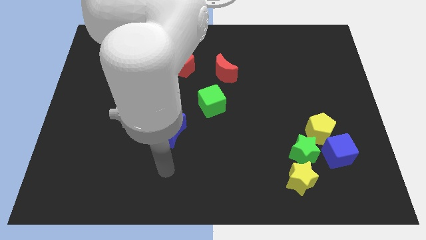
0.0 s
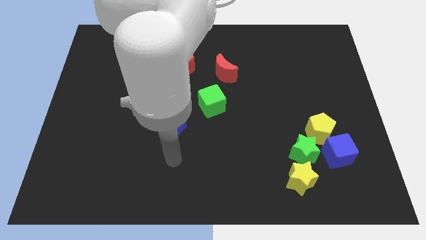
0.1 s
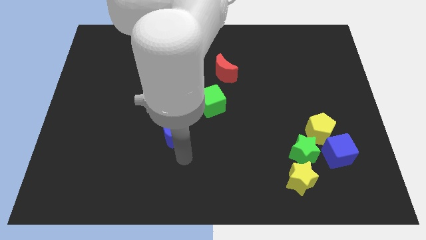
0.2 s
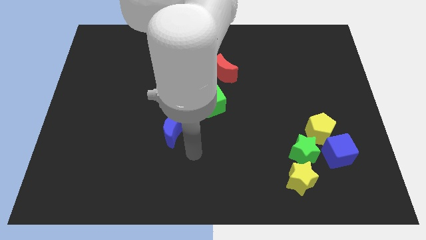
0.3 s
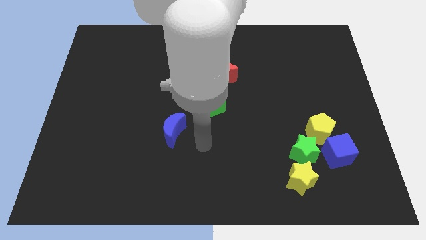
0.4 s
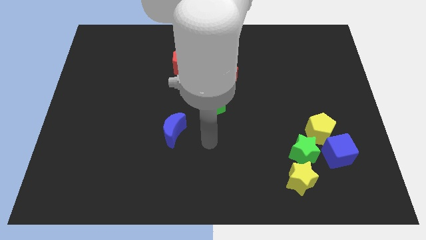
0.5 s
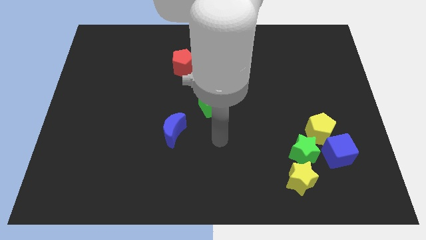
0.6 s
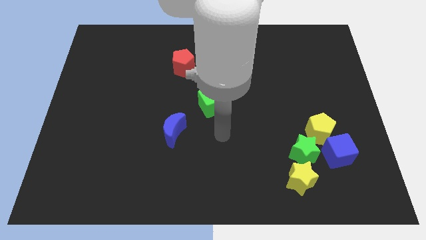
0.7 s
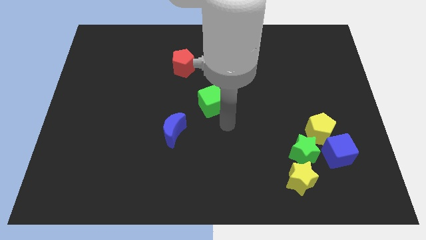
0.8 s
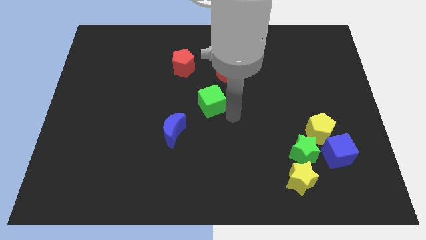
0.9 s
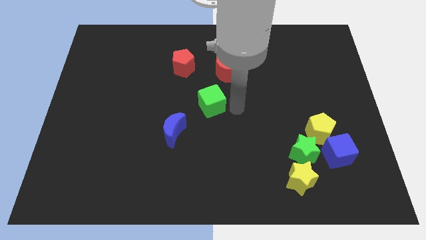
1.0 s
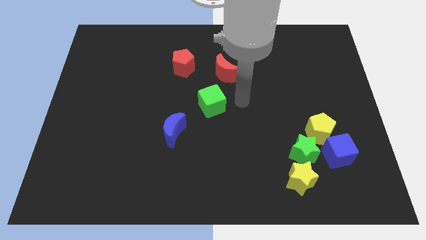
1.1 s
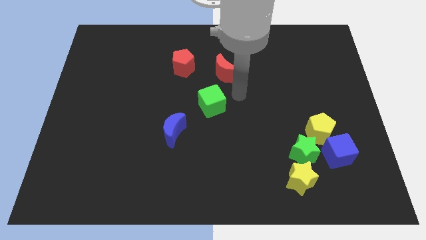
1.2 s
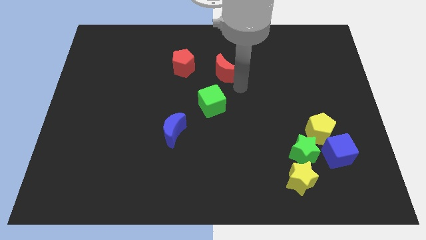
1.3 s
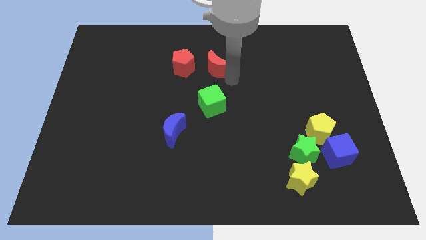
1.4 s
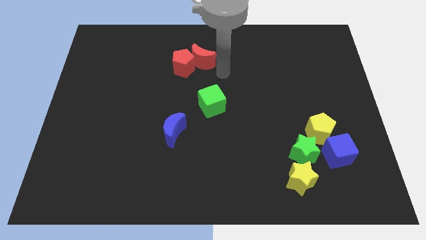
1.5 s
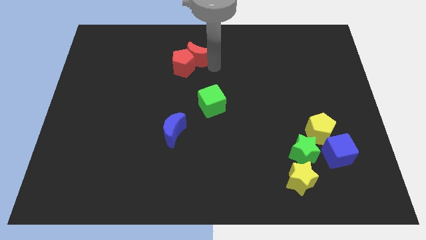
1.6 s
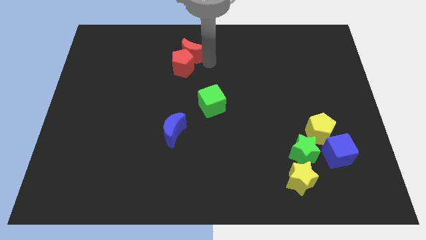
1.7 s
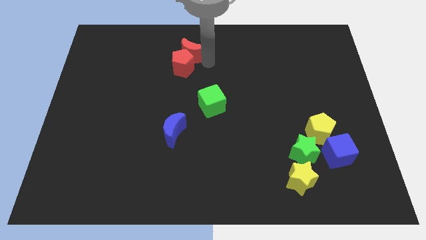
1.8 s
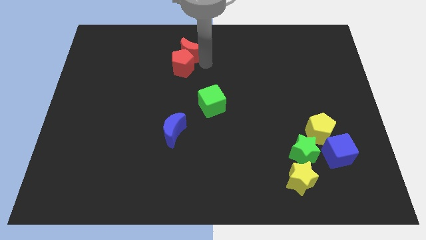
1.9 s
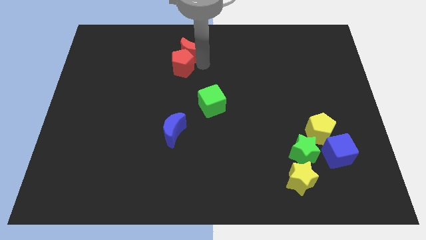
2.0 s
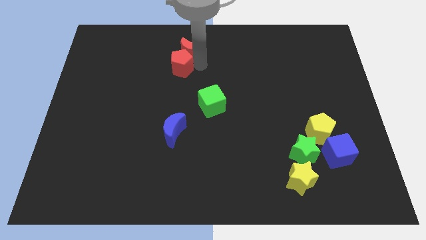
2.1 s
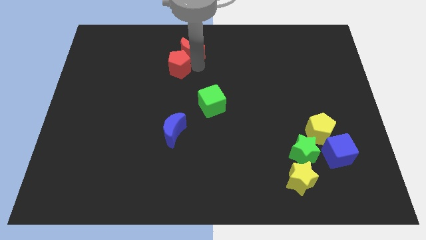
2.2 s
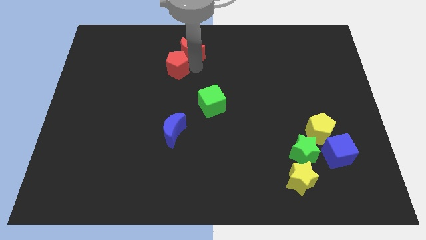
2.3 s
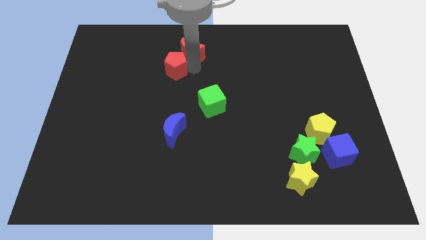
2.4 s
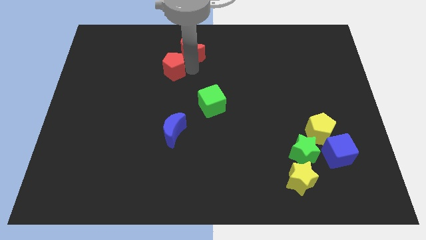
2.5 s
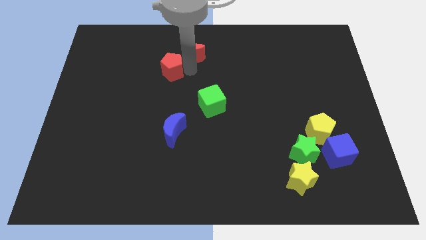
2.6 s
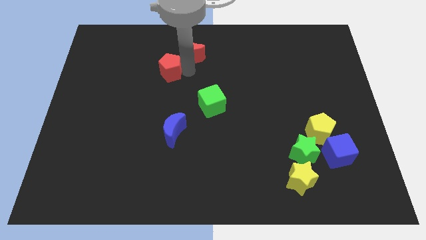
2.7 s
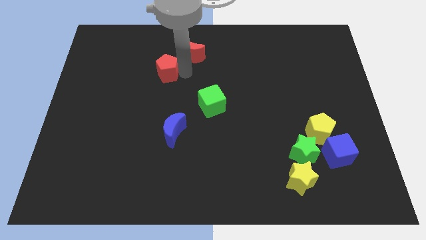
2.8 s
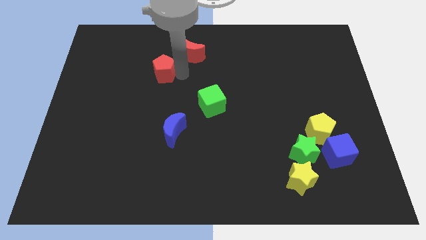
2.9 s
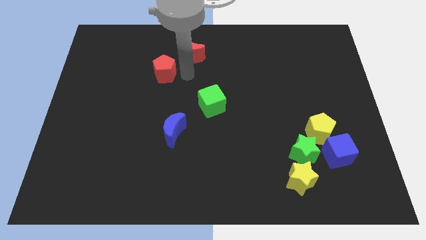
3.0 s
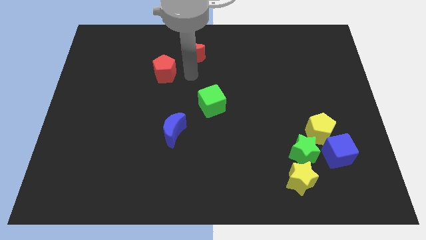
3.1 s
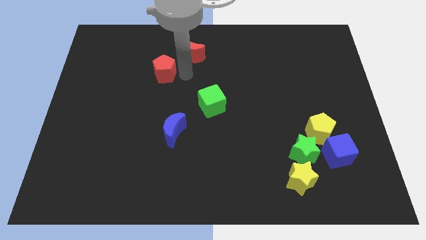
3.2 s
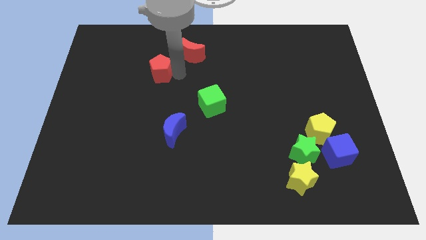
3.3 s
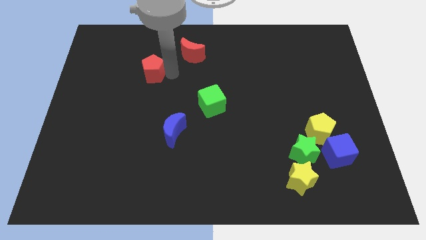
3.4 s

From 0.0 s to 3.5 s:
move the red pentagon slightly left

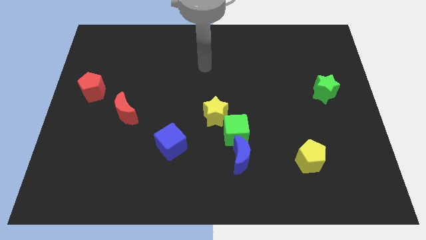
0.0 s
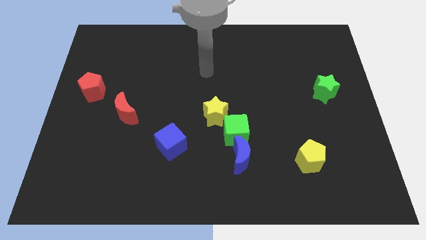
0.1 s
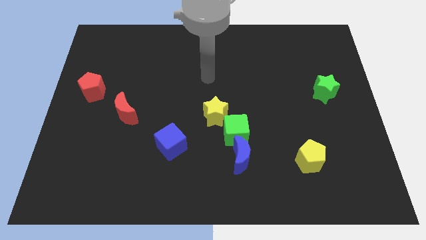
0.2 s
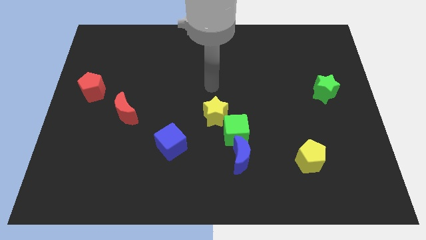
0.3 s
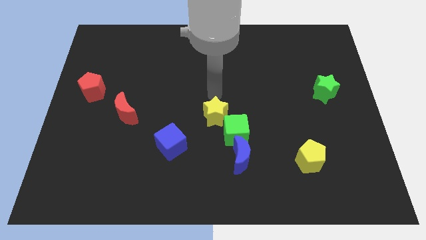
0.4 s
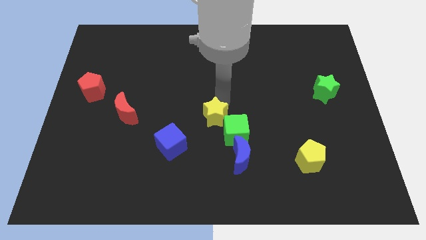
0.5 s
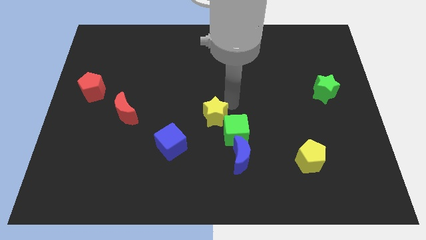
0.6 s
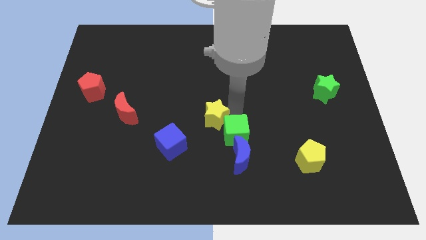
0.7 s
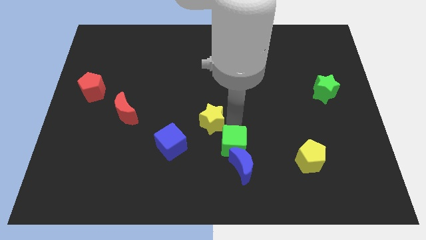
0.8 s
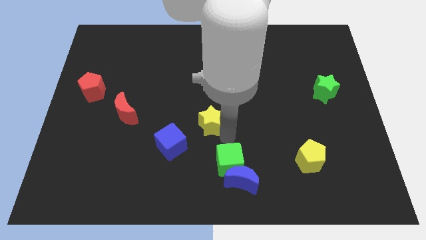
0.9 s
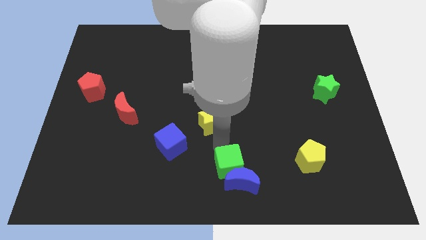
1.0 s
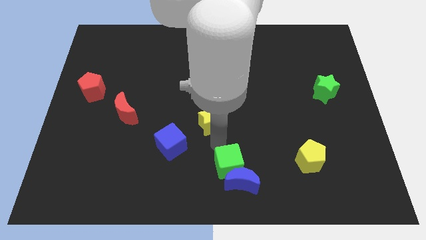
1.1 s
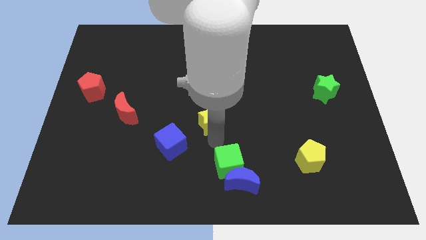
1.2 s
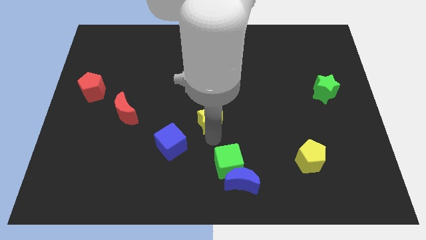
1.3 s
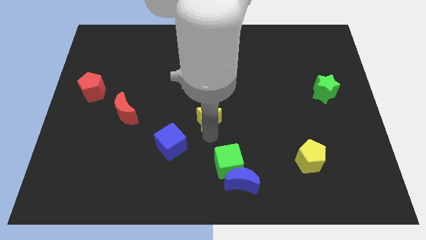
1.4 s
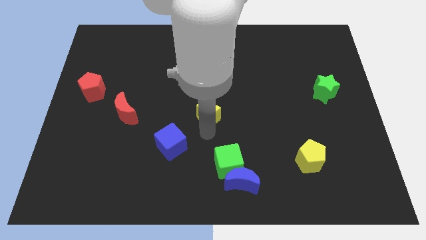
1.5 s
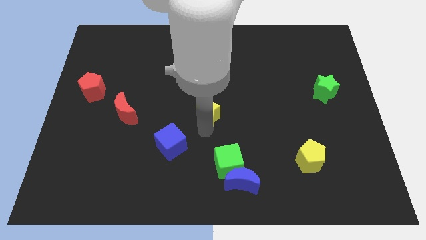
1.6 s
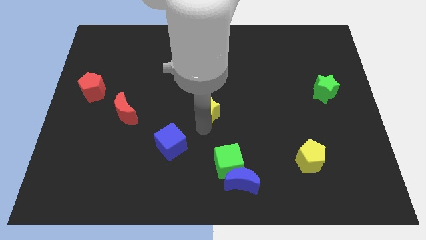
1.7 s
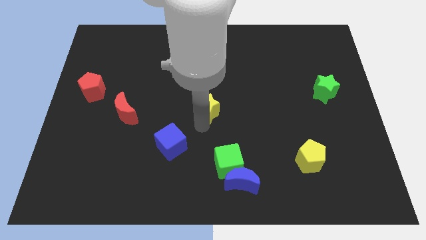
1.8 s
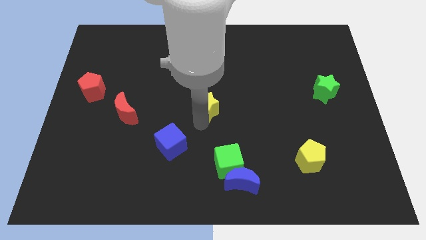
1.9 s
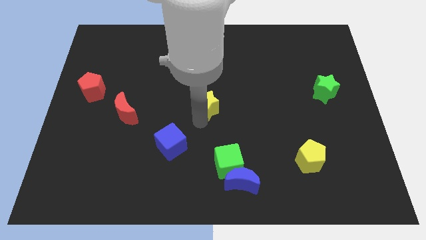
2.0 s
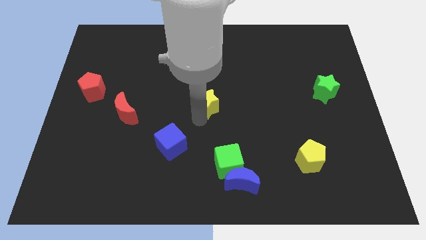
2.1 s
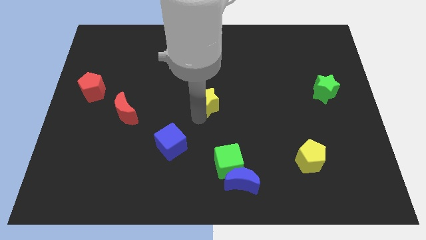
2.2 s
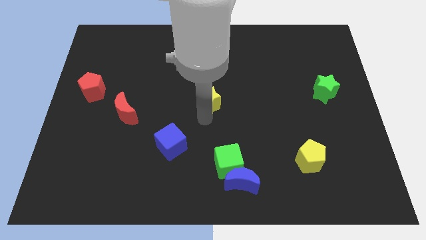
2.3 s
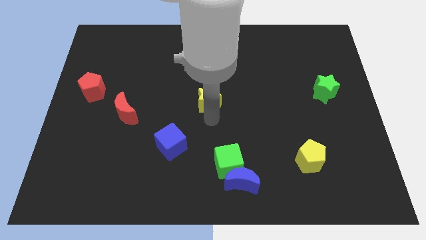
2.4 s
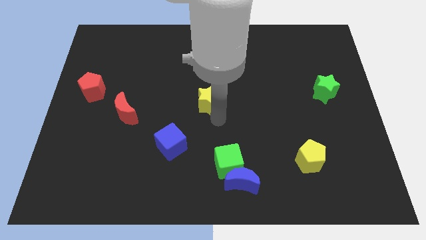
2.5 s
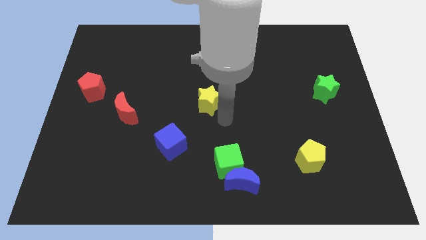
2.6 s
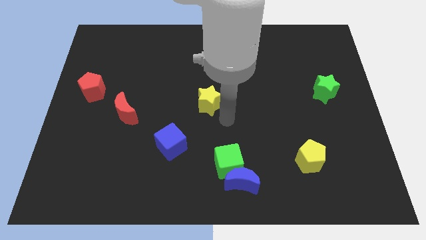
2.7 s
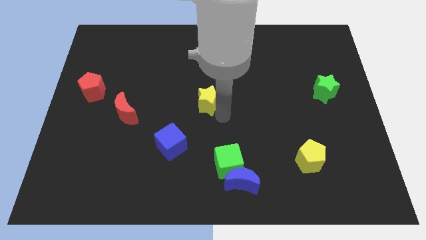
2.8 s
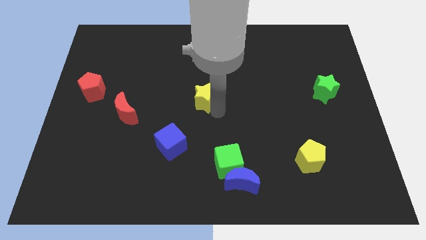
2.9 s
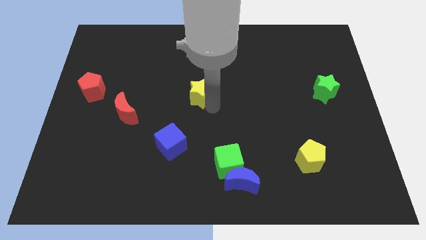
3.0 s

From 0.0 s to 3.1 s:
slightly slide the yellow star upwards and left

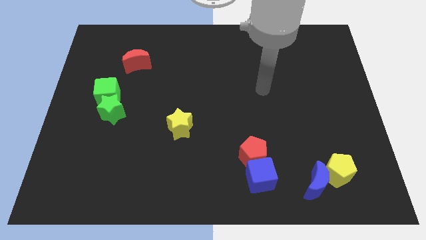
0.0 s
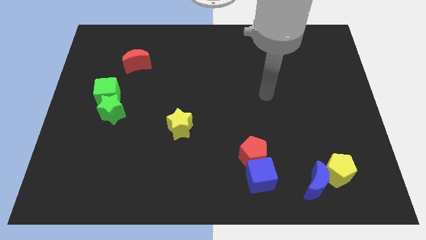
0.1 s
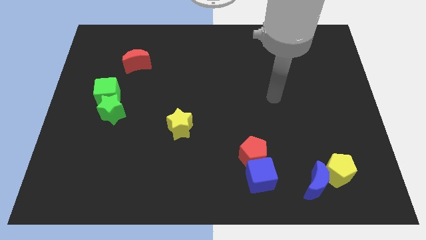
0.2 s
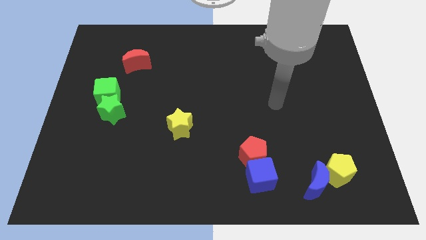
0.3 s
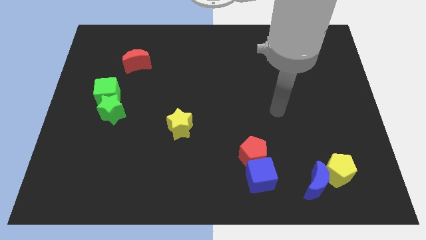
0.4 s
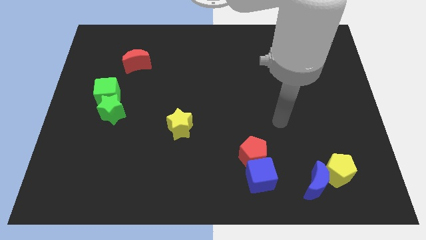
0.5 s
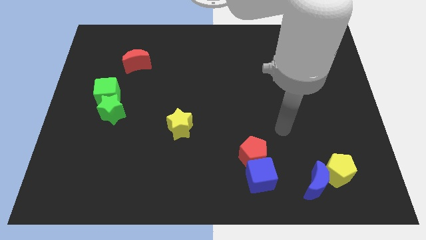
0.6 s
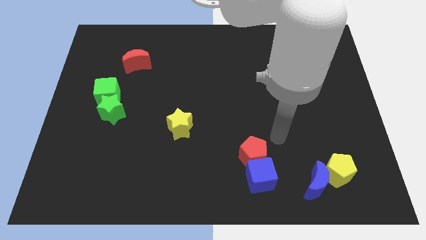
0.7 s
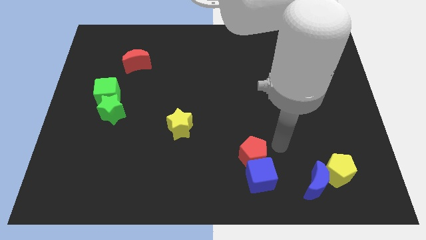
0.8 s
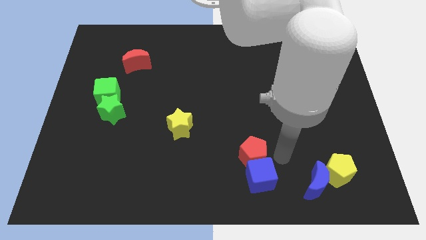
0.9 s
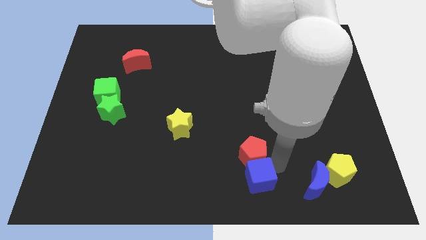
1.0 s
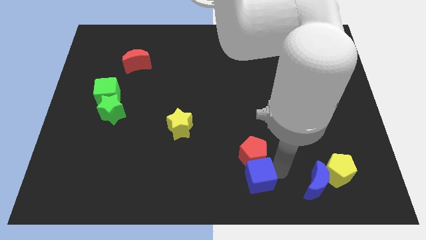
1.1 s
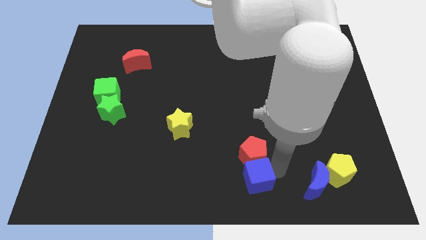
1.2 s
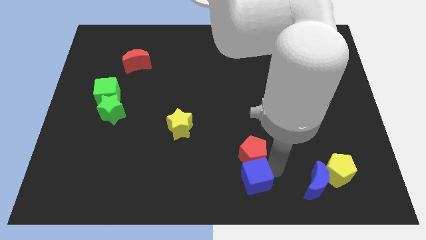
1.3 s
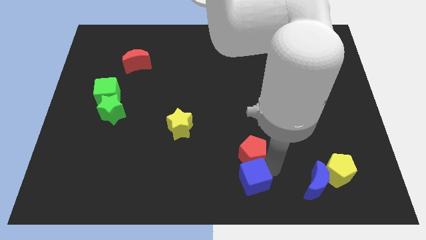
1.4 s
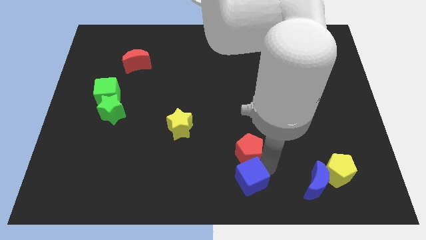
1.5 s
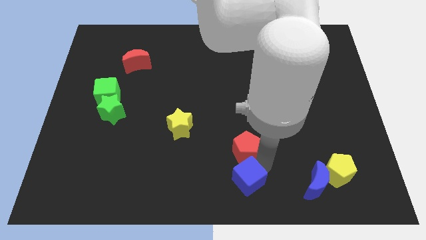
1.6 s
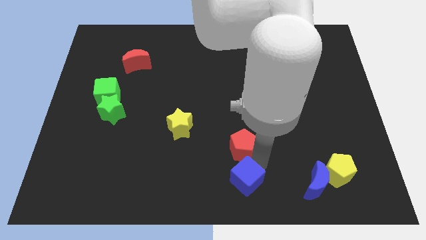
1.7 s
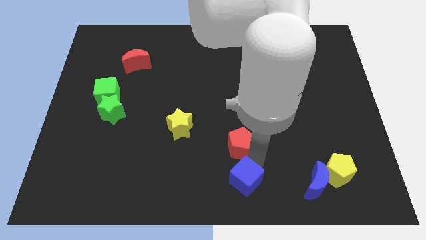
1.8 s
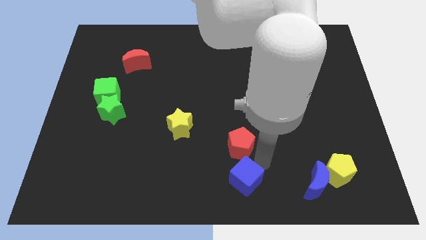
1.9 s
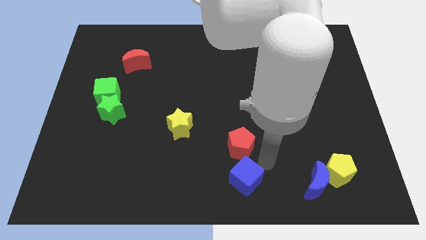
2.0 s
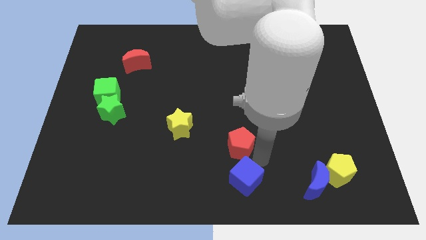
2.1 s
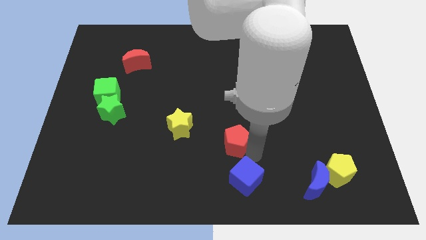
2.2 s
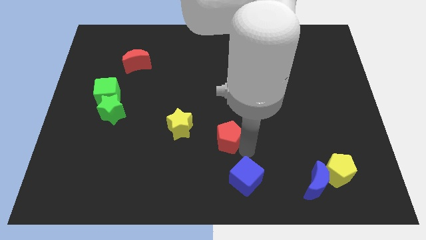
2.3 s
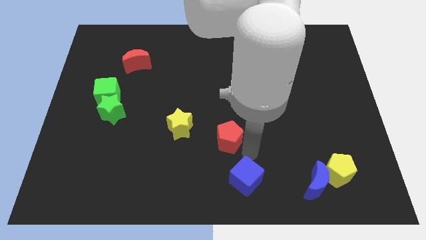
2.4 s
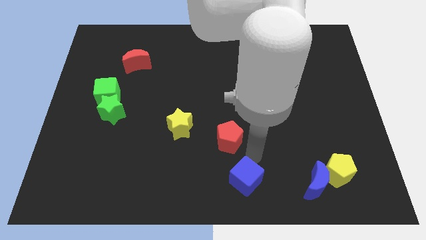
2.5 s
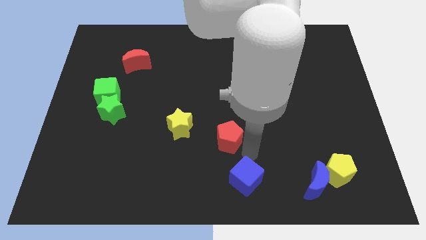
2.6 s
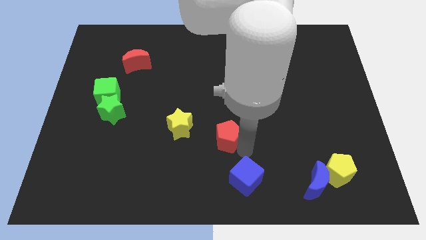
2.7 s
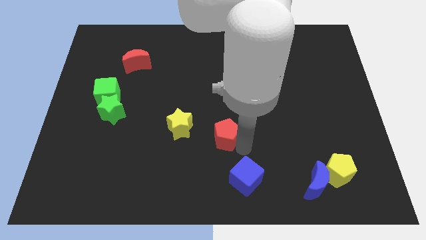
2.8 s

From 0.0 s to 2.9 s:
move the red pentagon a little bit diagonally upwards and to the left
